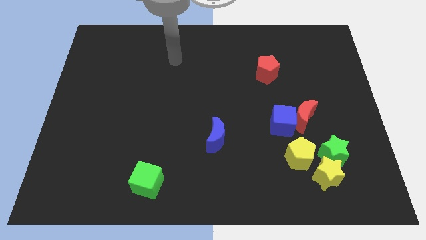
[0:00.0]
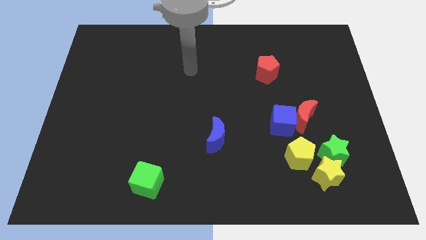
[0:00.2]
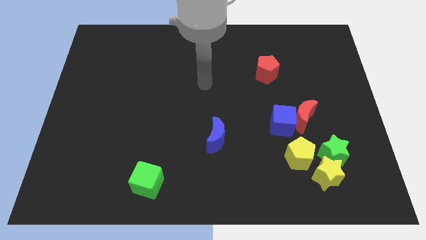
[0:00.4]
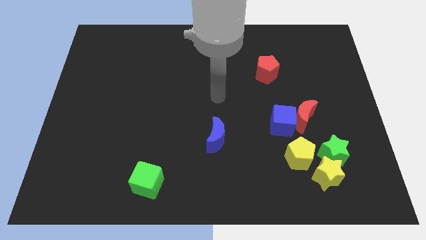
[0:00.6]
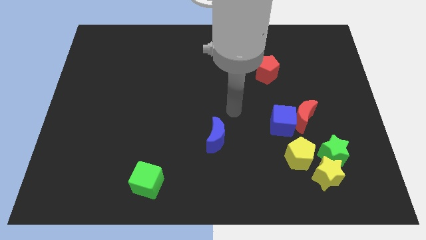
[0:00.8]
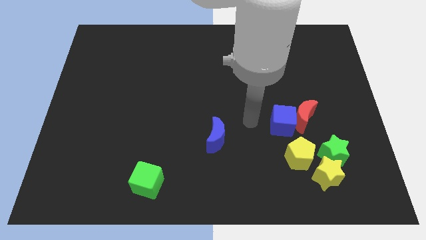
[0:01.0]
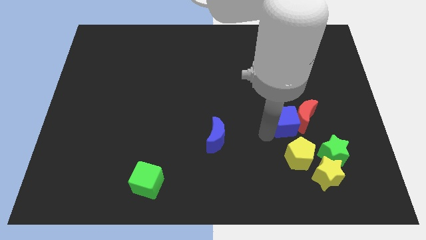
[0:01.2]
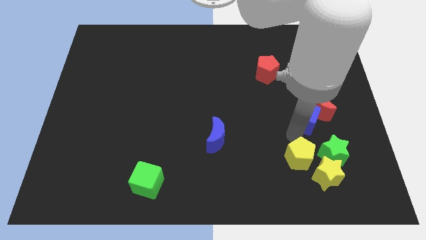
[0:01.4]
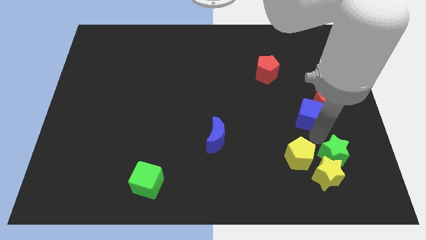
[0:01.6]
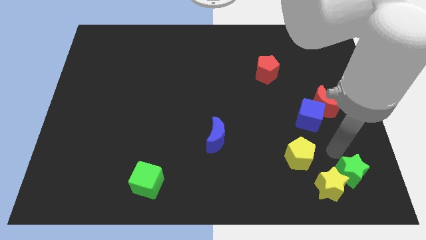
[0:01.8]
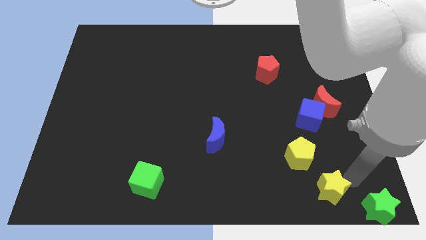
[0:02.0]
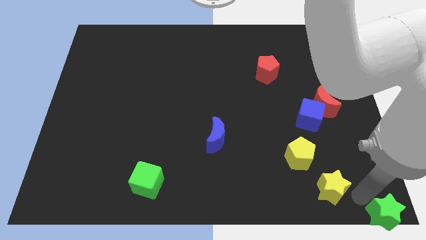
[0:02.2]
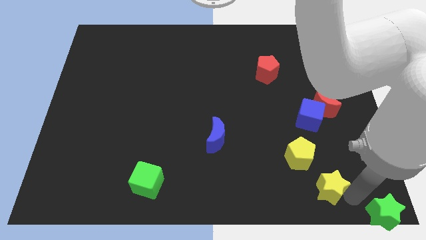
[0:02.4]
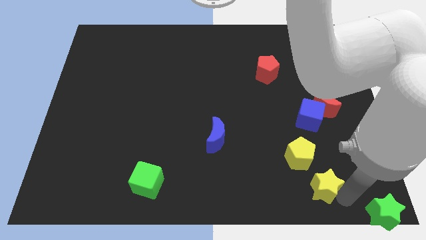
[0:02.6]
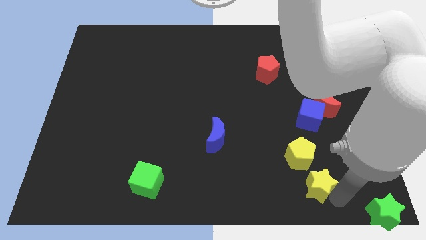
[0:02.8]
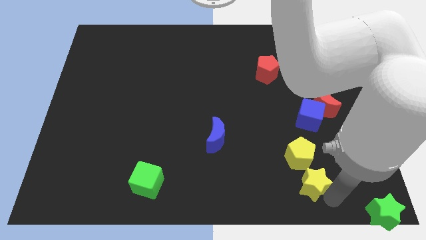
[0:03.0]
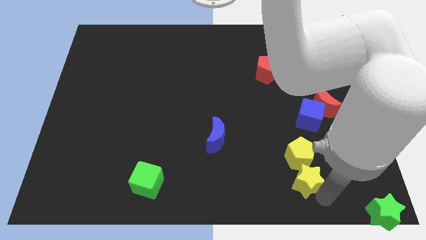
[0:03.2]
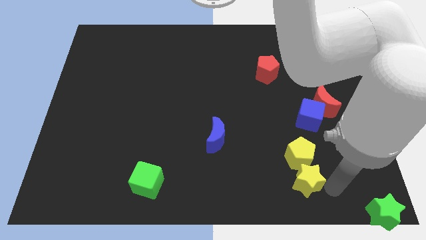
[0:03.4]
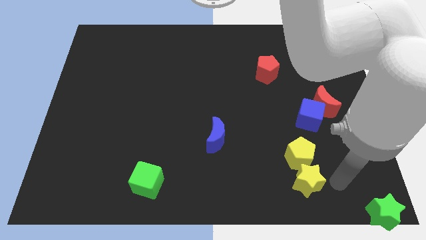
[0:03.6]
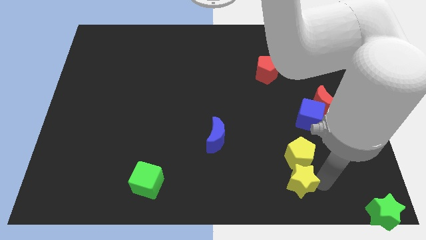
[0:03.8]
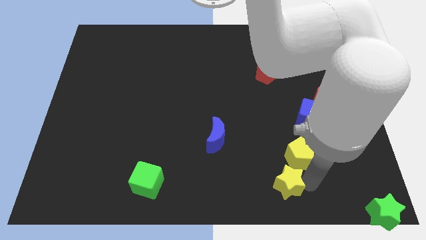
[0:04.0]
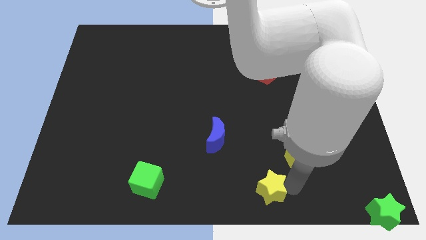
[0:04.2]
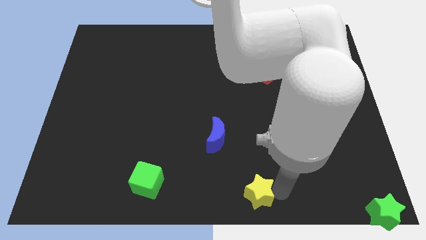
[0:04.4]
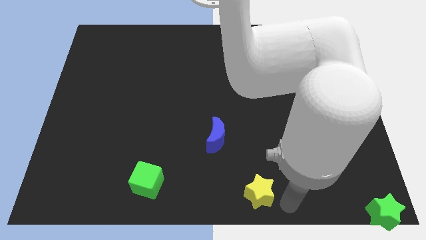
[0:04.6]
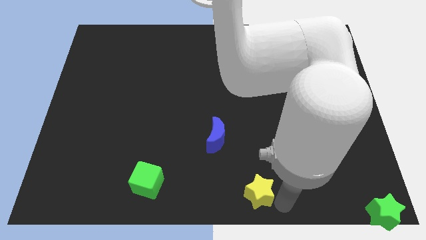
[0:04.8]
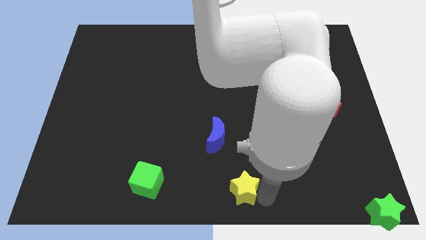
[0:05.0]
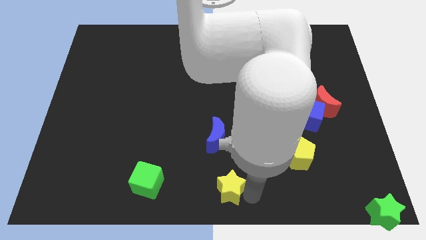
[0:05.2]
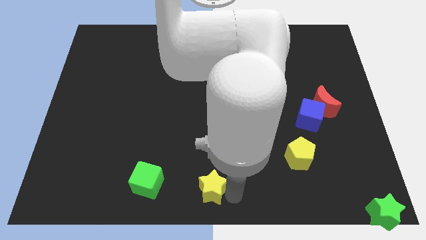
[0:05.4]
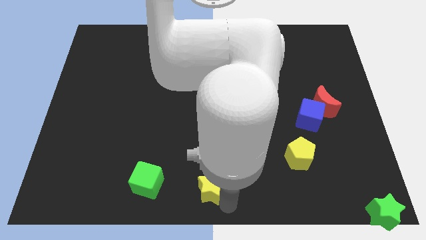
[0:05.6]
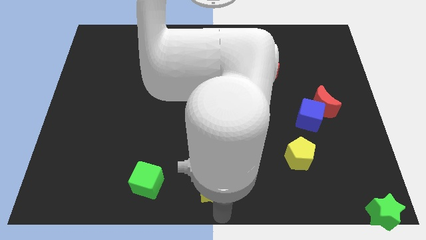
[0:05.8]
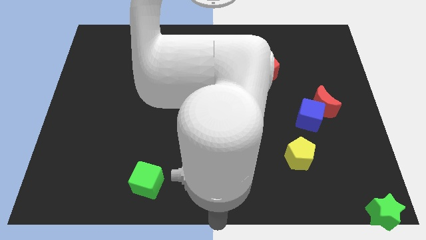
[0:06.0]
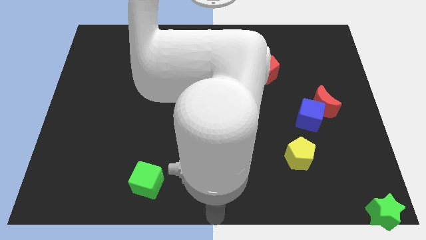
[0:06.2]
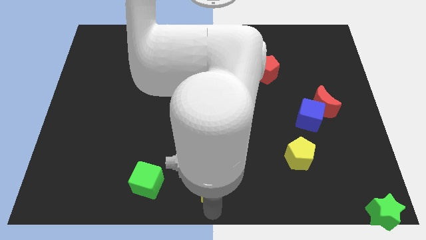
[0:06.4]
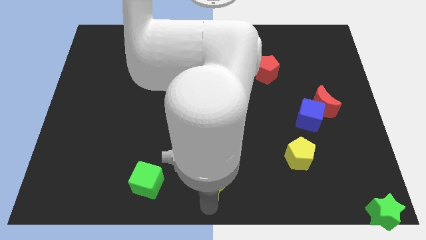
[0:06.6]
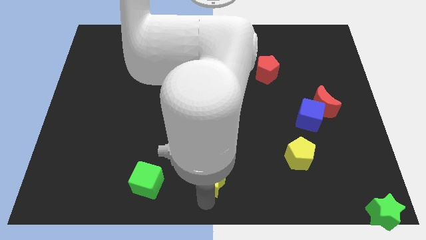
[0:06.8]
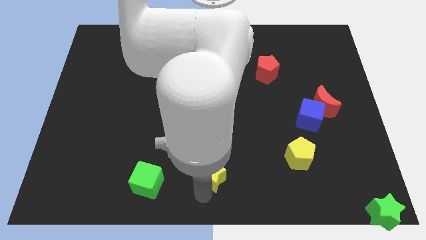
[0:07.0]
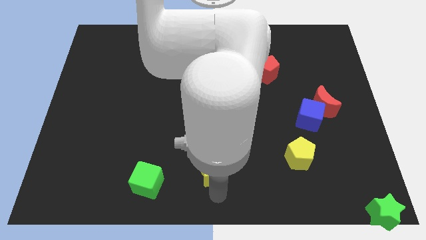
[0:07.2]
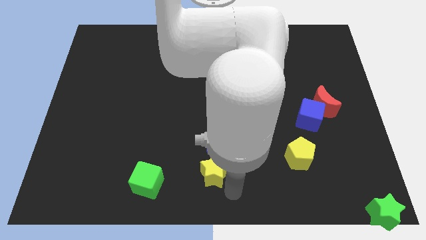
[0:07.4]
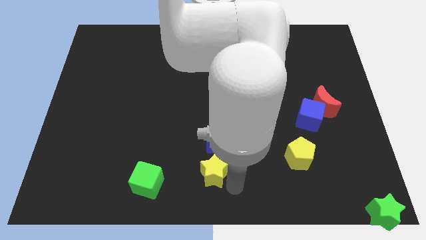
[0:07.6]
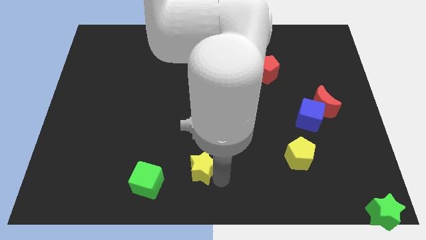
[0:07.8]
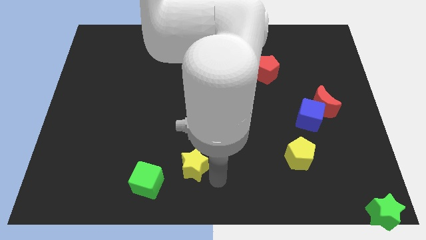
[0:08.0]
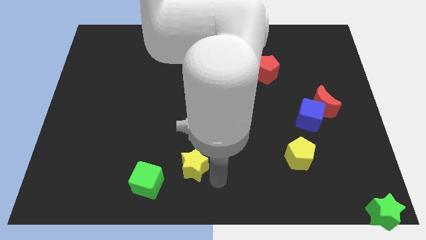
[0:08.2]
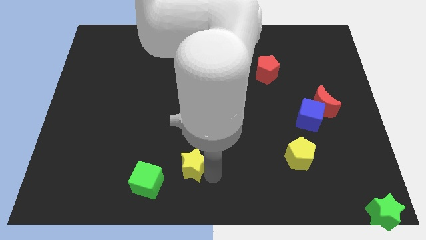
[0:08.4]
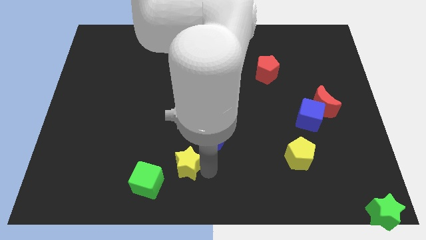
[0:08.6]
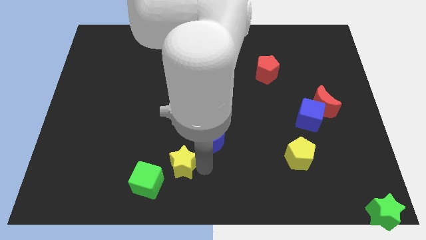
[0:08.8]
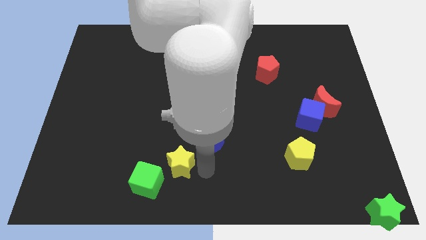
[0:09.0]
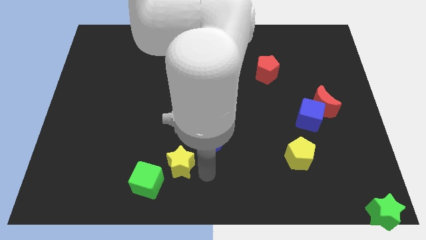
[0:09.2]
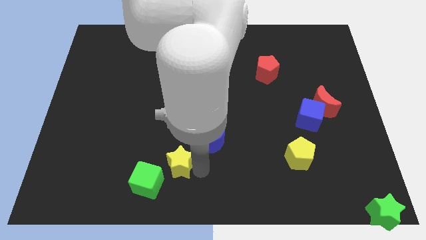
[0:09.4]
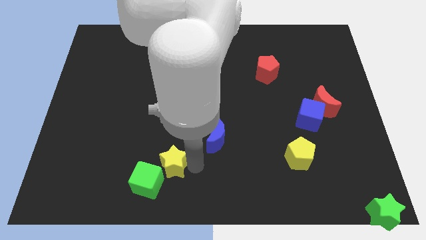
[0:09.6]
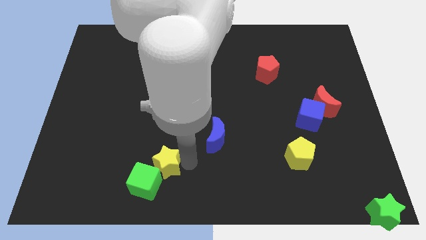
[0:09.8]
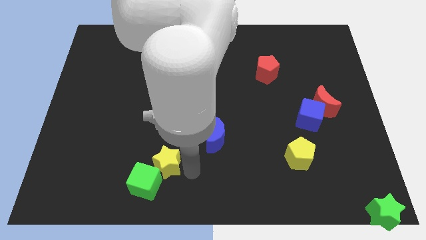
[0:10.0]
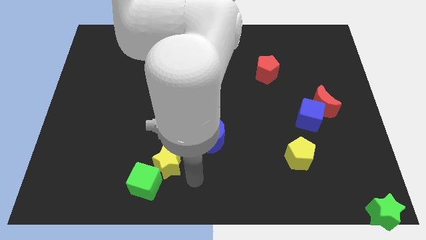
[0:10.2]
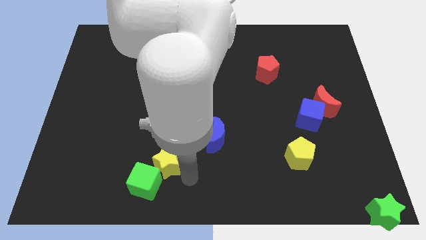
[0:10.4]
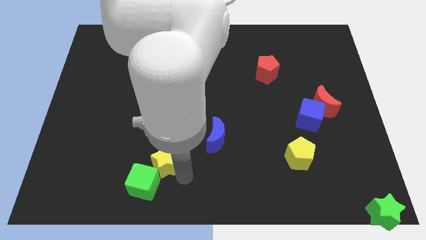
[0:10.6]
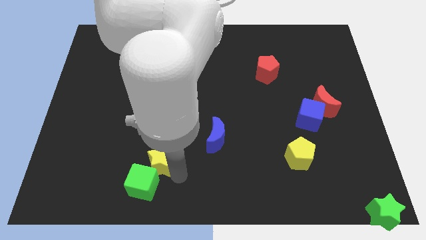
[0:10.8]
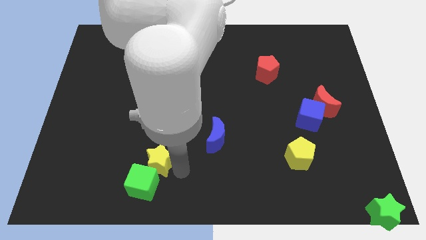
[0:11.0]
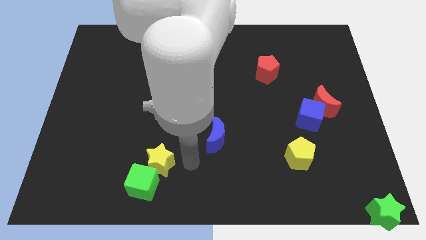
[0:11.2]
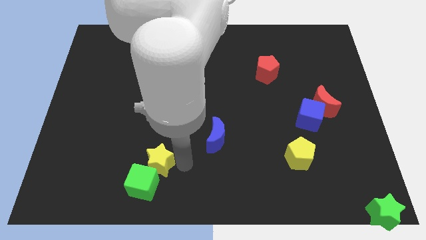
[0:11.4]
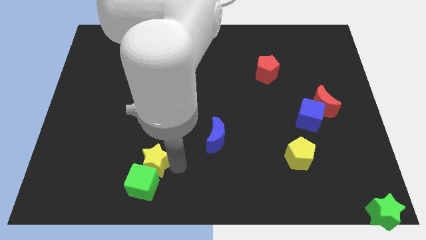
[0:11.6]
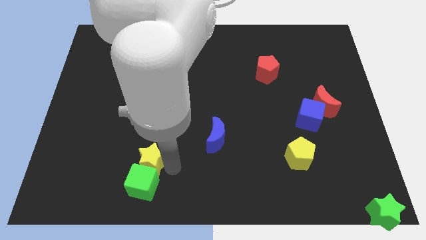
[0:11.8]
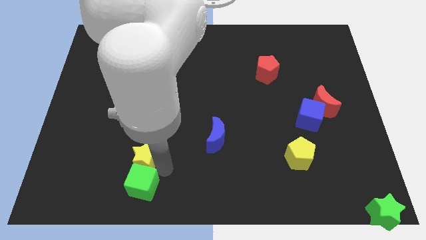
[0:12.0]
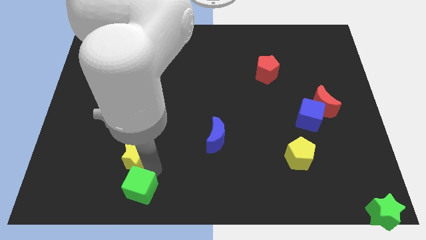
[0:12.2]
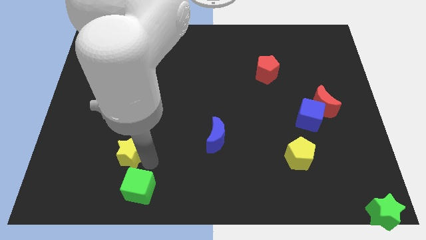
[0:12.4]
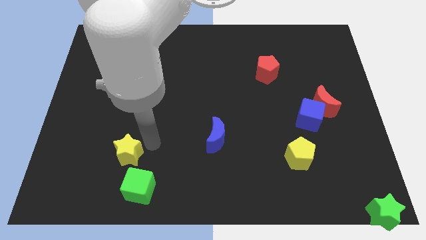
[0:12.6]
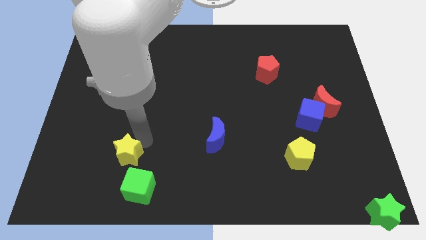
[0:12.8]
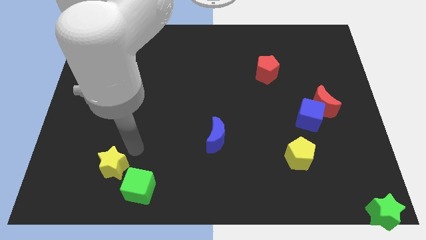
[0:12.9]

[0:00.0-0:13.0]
move the yellow star to the left of the green cube
